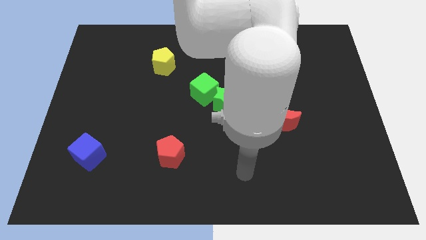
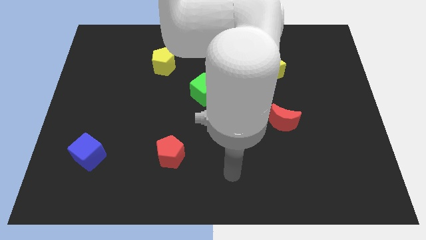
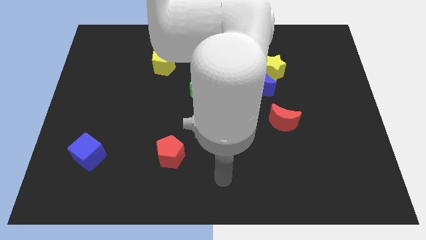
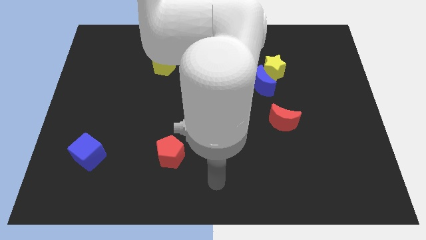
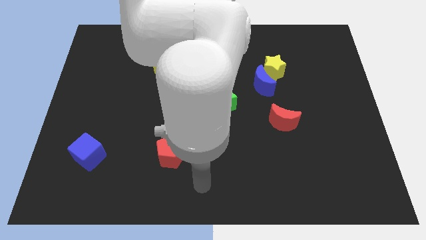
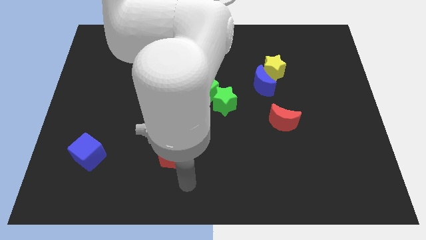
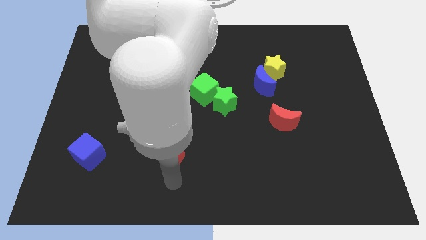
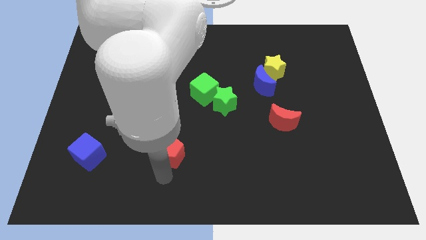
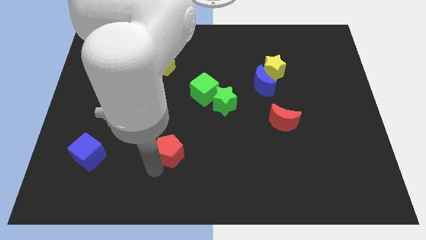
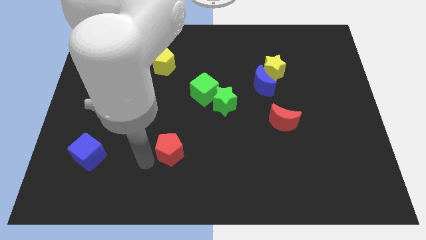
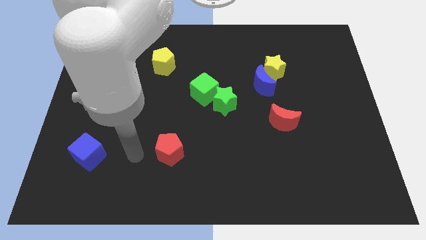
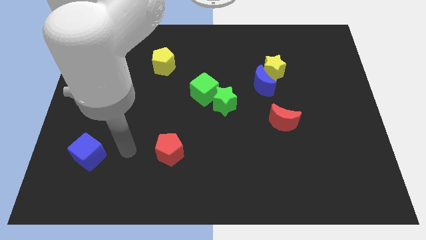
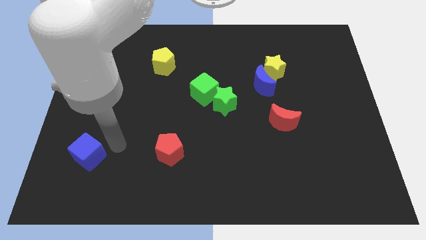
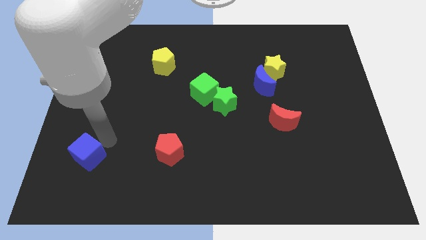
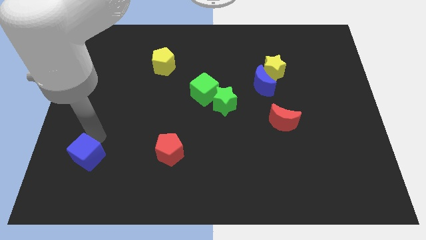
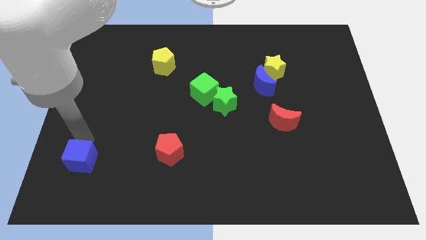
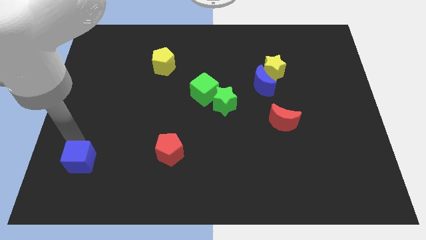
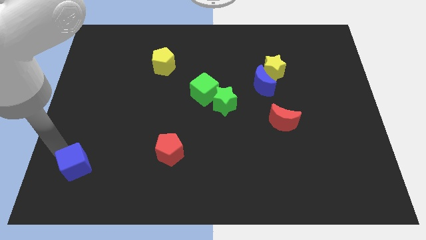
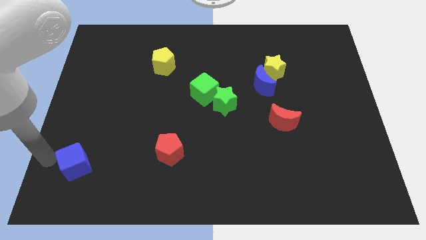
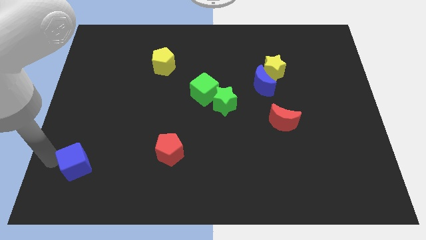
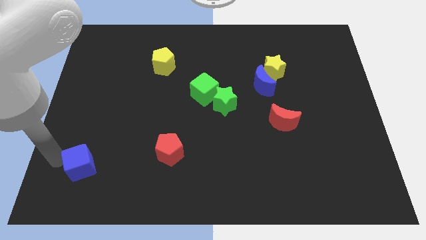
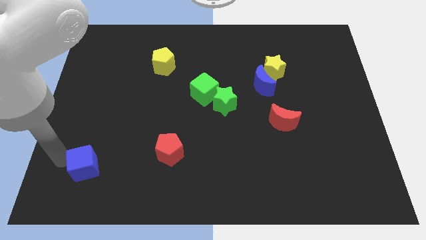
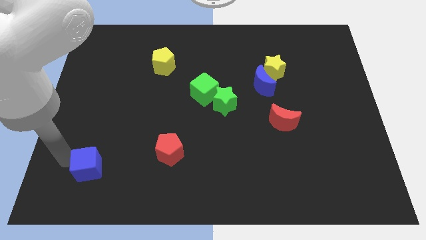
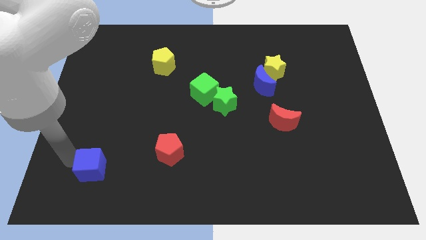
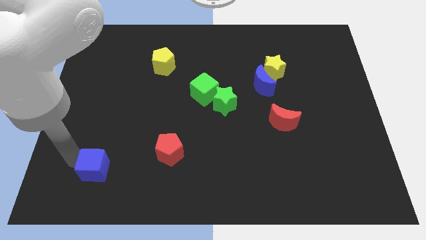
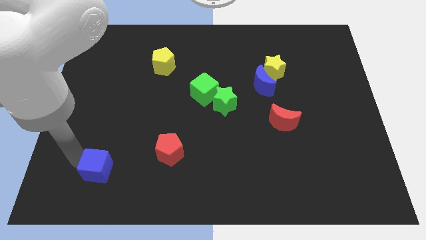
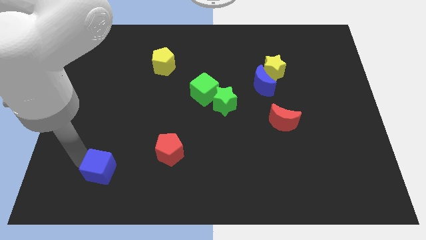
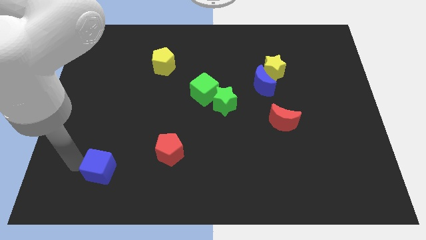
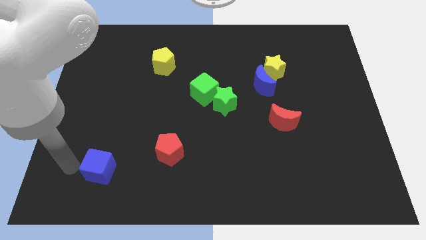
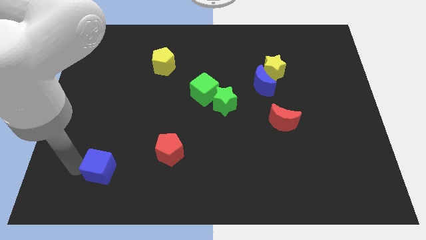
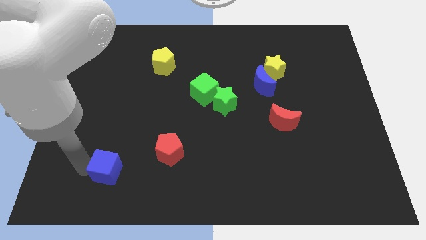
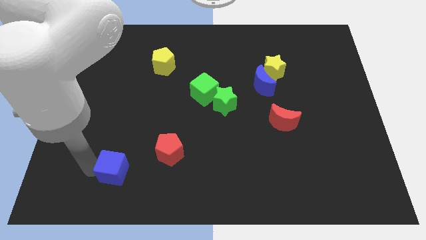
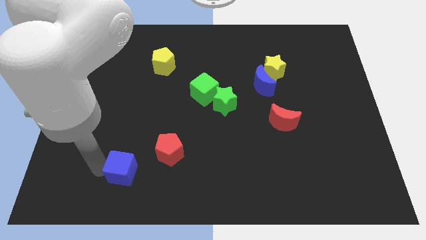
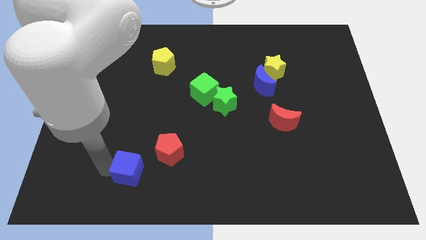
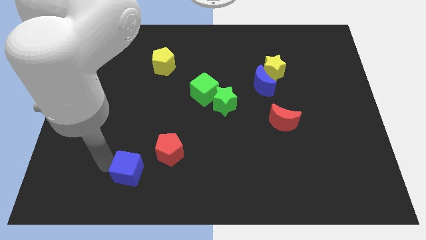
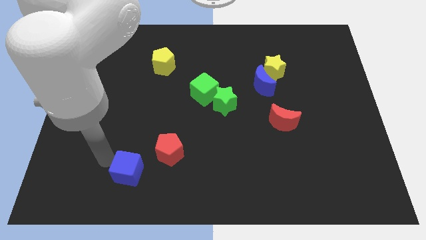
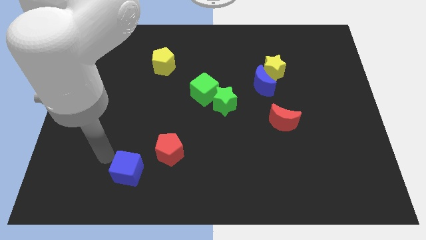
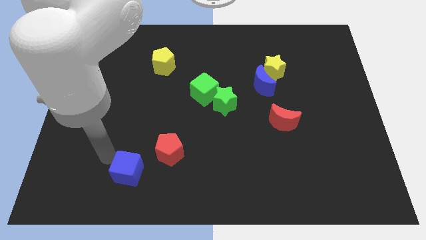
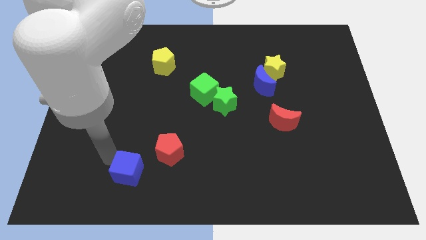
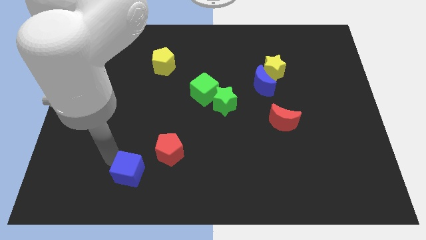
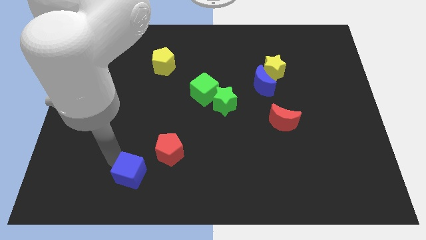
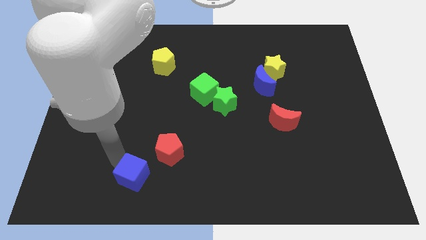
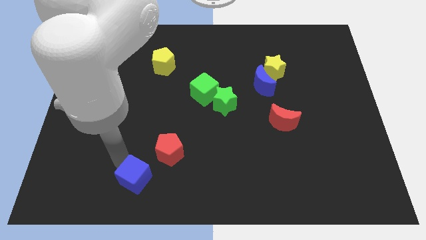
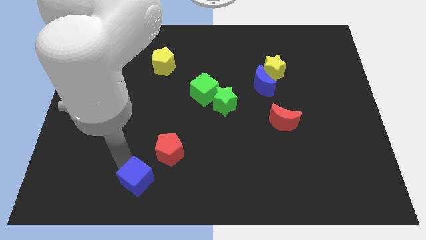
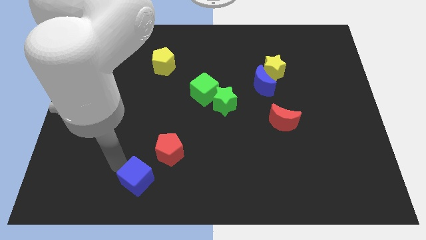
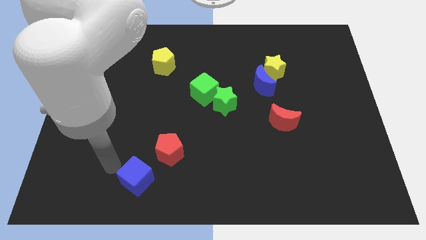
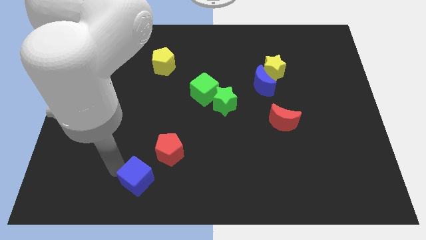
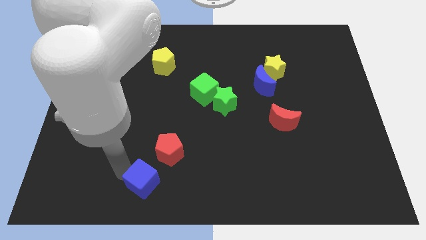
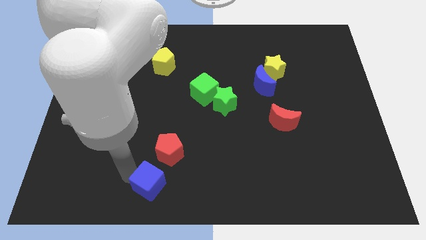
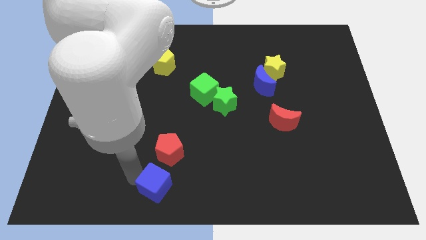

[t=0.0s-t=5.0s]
push the blue cube to the bottom side

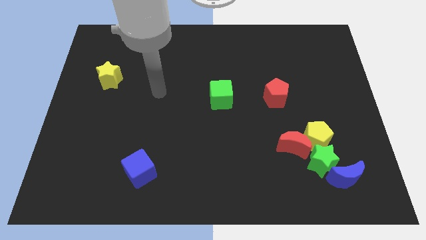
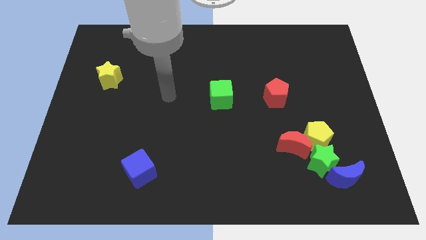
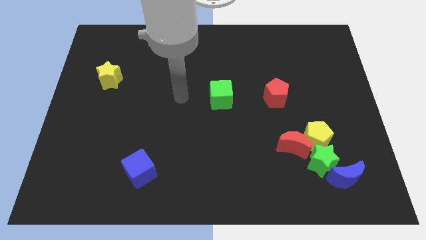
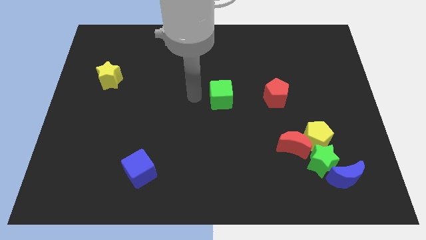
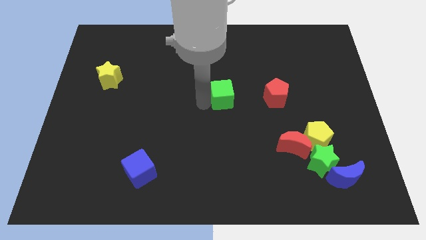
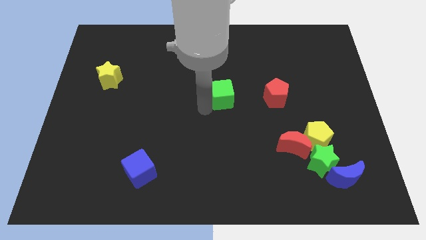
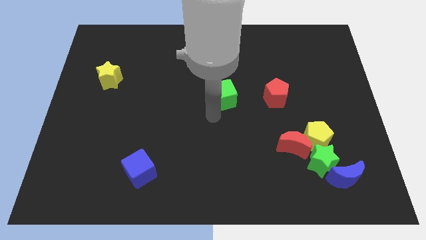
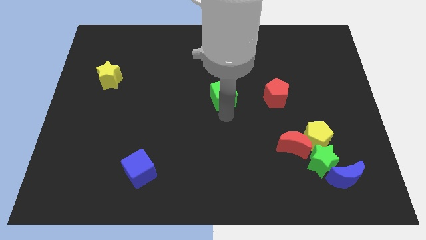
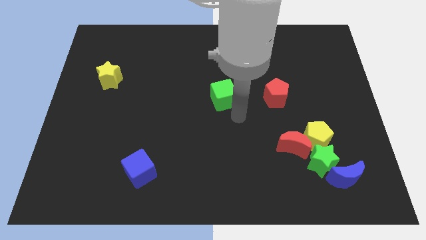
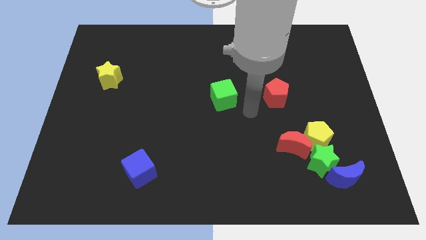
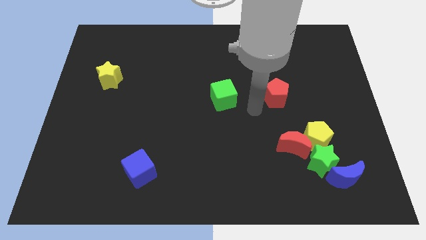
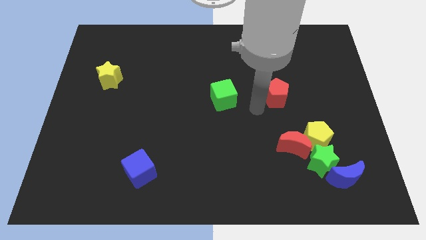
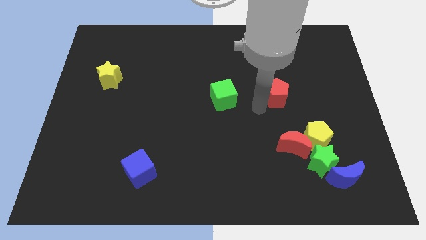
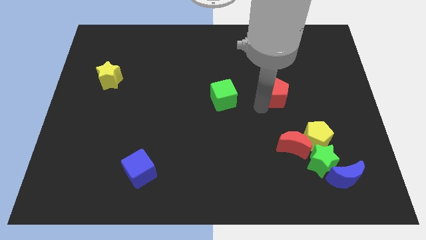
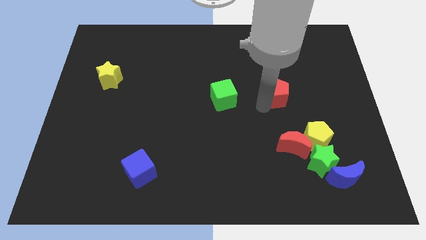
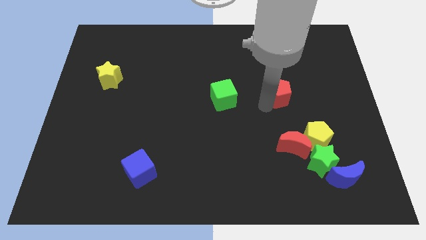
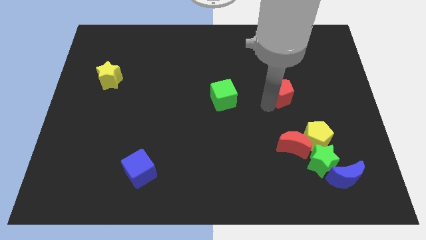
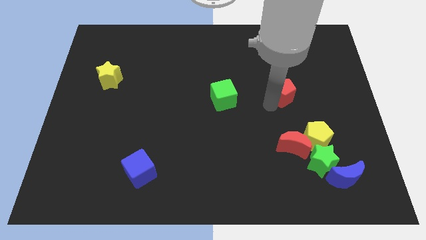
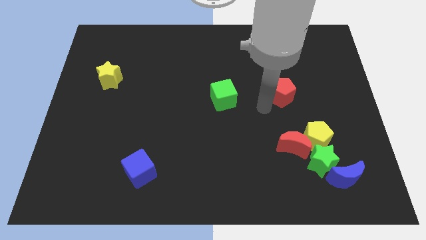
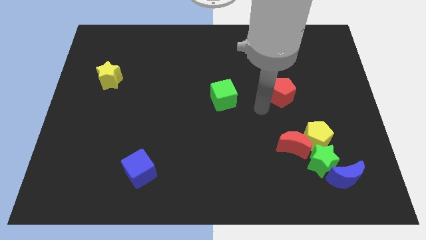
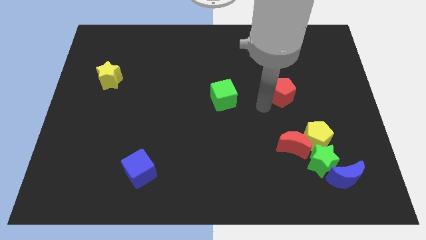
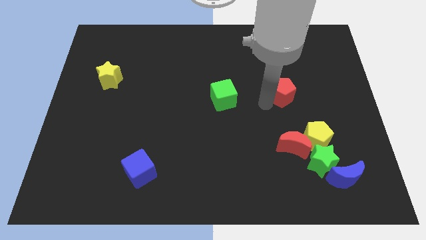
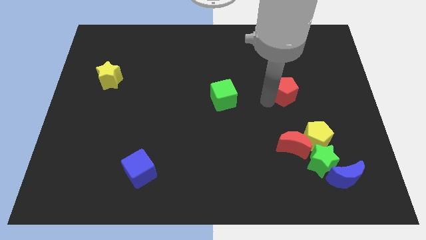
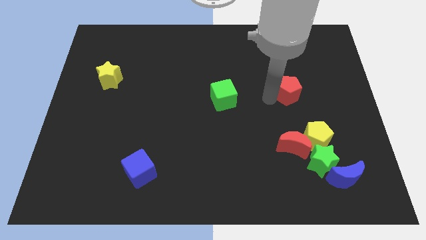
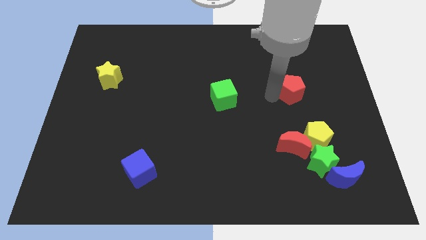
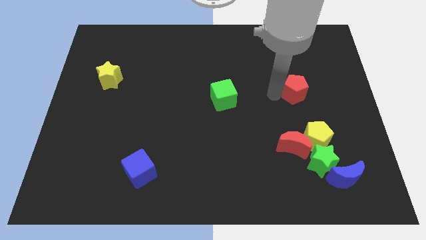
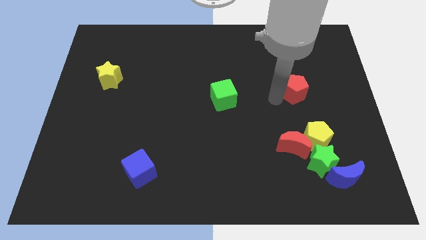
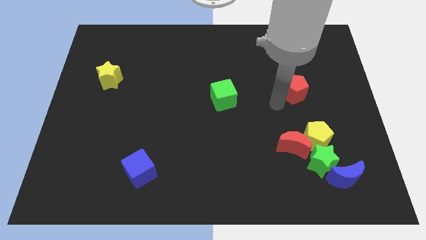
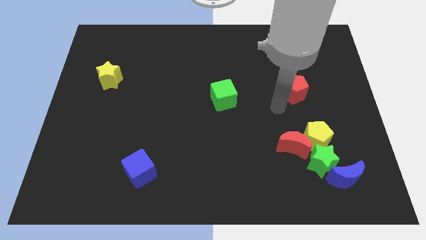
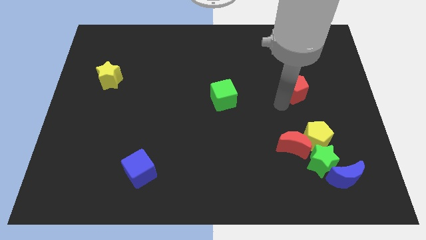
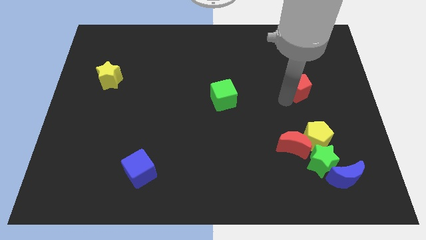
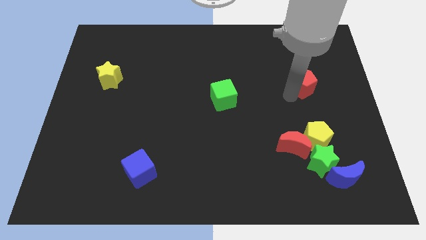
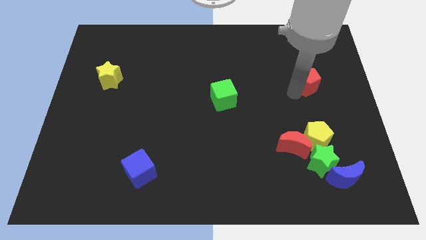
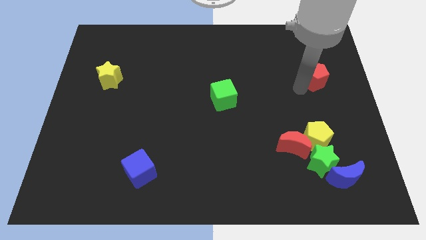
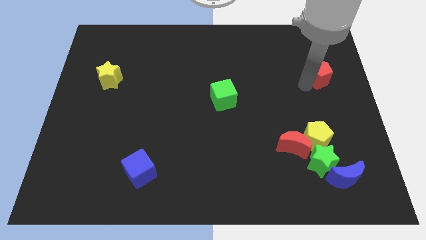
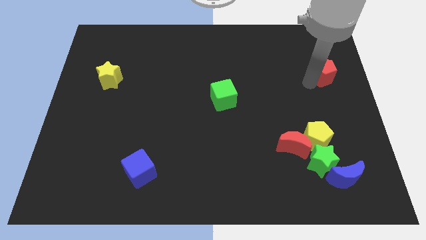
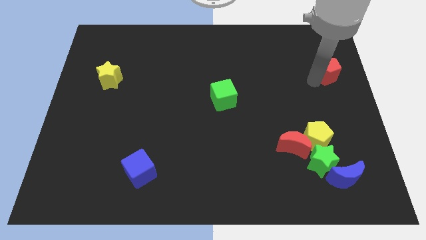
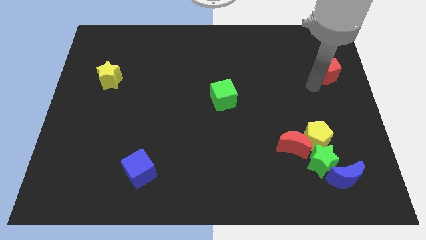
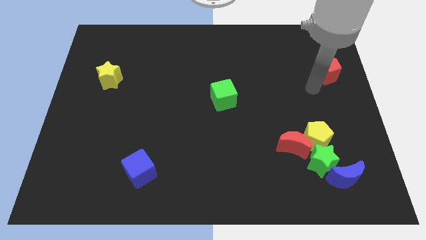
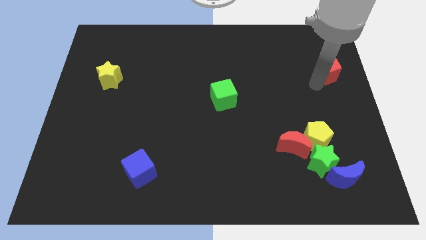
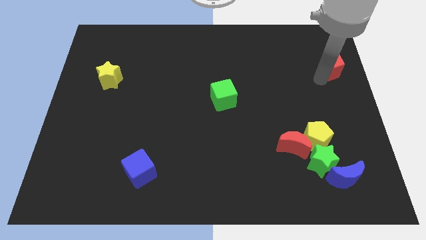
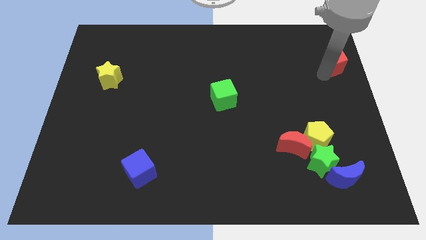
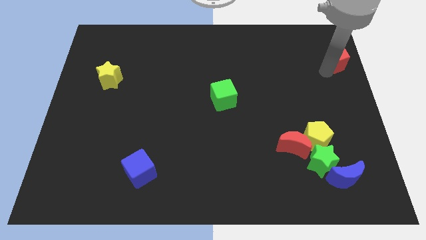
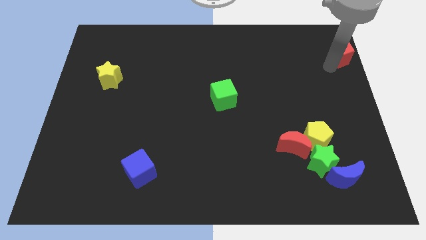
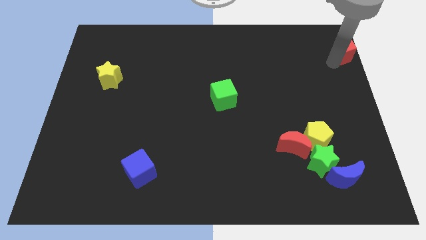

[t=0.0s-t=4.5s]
move the red pentagon to the top right of the board
